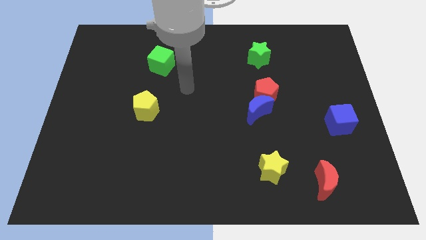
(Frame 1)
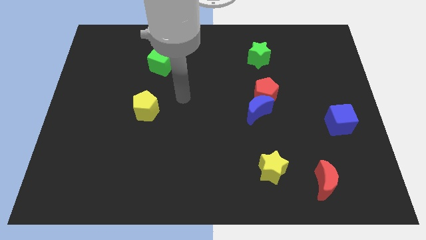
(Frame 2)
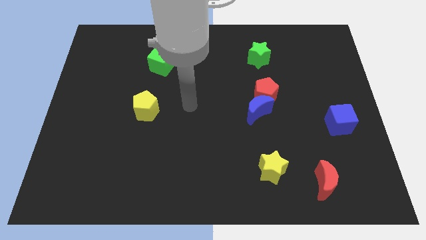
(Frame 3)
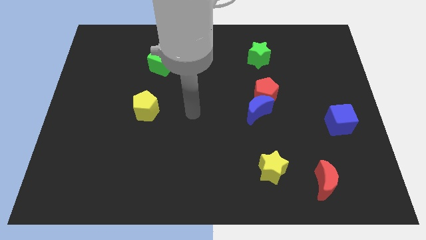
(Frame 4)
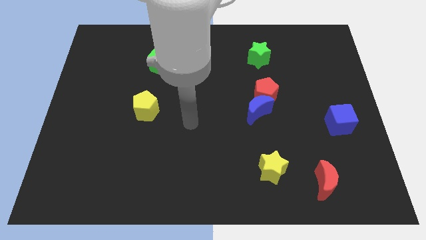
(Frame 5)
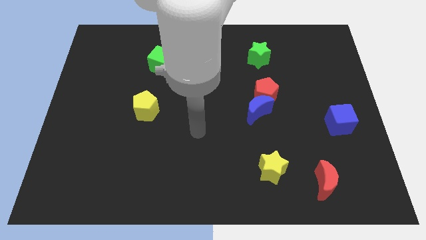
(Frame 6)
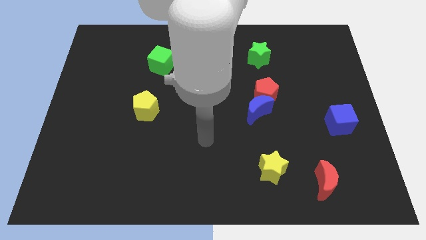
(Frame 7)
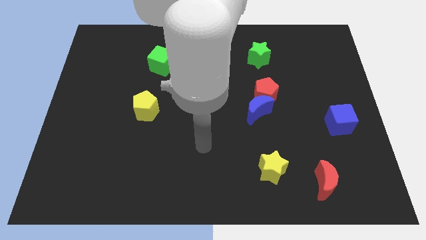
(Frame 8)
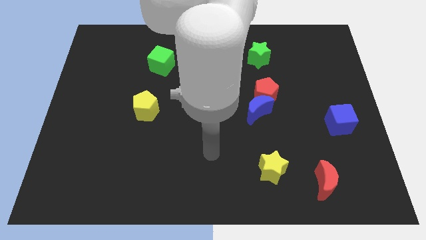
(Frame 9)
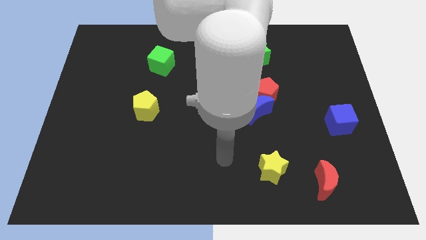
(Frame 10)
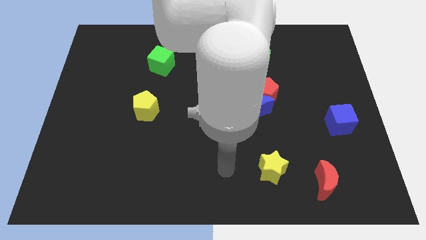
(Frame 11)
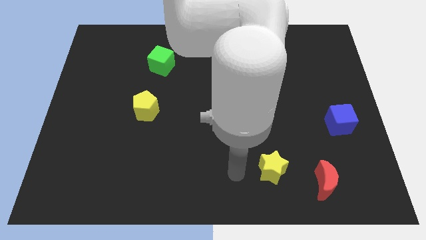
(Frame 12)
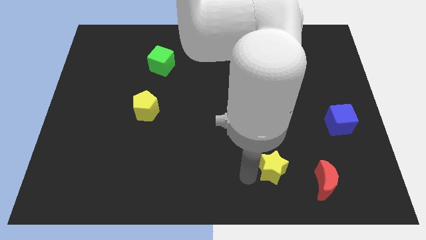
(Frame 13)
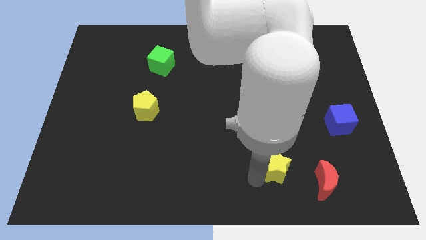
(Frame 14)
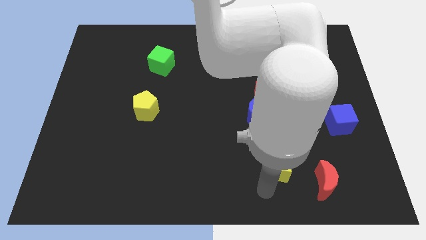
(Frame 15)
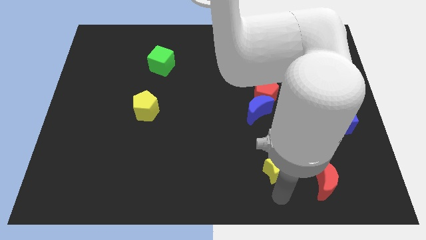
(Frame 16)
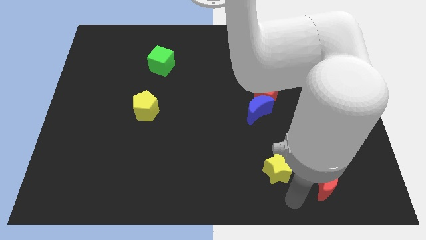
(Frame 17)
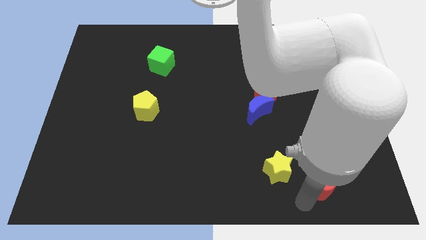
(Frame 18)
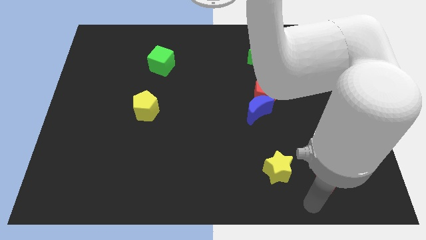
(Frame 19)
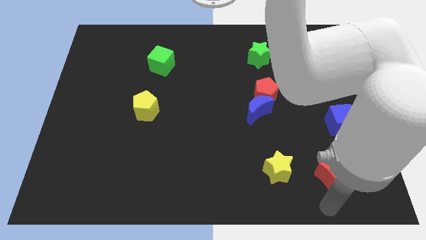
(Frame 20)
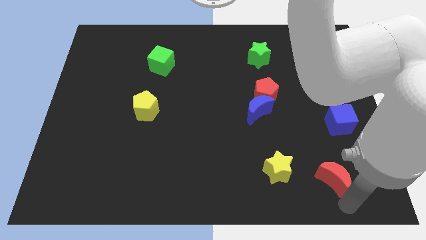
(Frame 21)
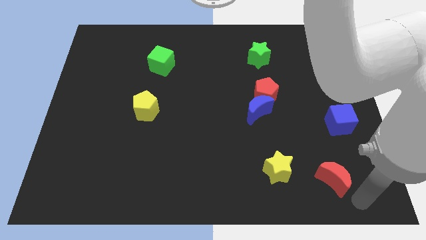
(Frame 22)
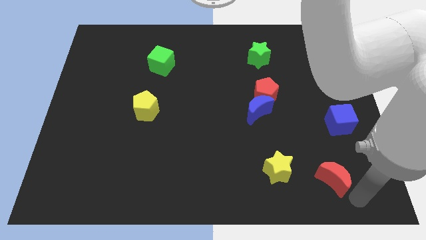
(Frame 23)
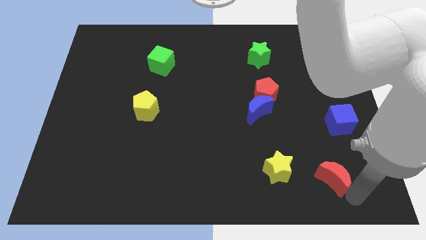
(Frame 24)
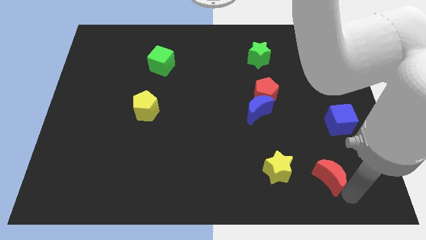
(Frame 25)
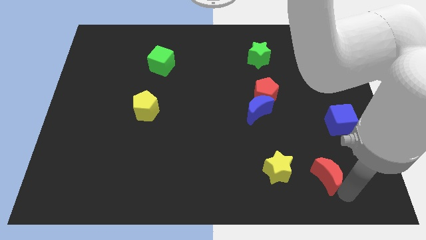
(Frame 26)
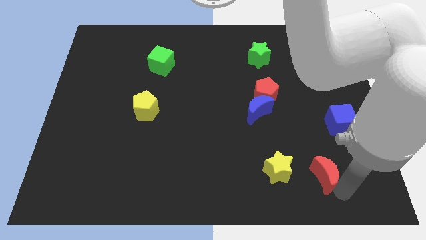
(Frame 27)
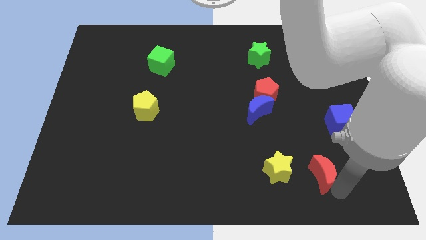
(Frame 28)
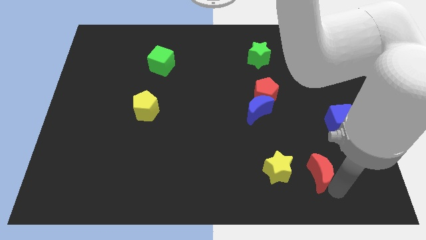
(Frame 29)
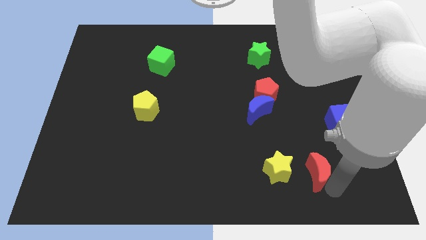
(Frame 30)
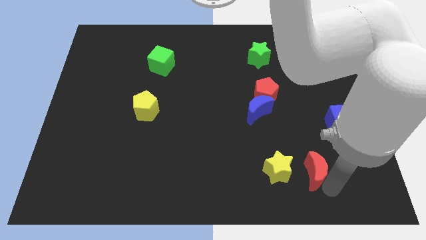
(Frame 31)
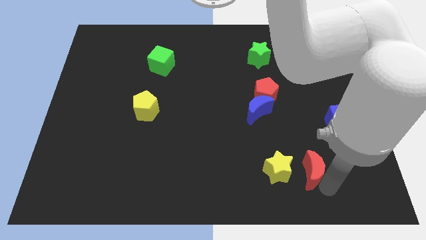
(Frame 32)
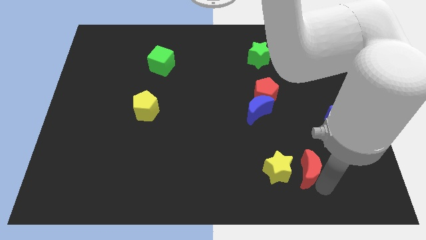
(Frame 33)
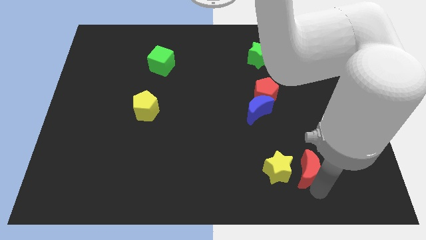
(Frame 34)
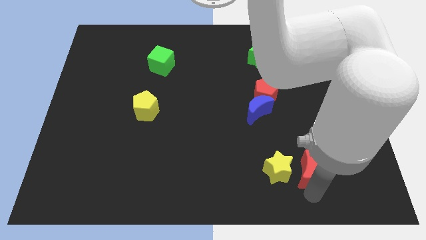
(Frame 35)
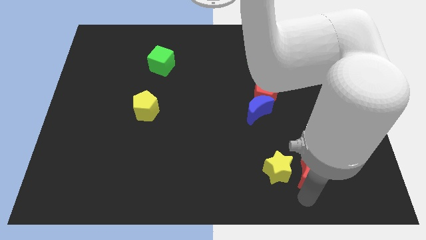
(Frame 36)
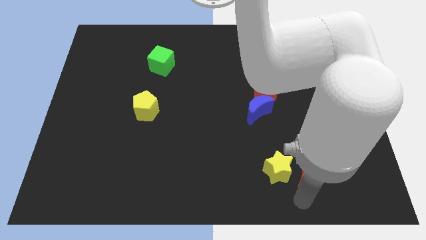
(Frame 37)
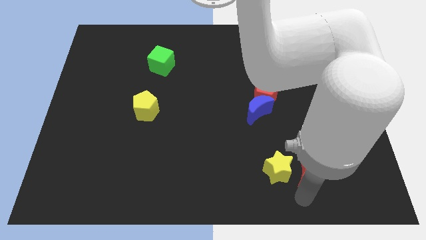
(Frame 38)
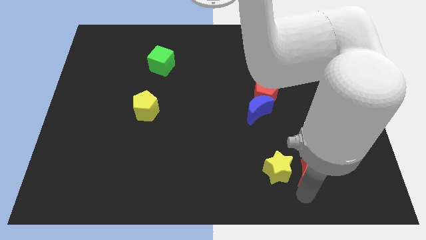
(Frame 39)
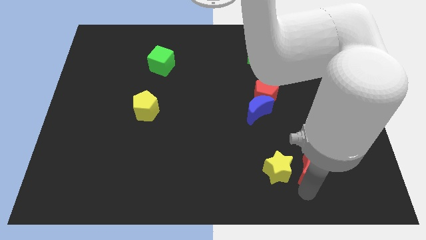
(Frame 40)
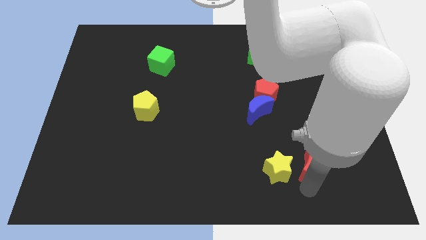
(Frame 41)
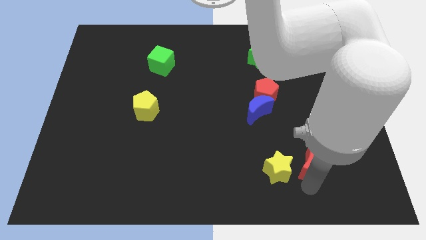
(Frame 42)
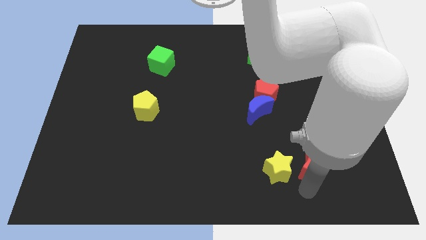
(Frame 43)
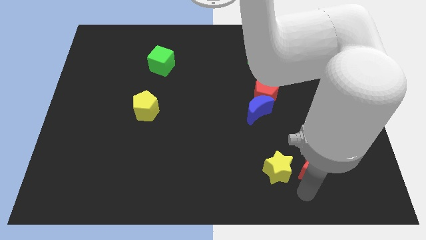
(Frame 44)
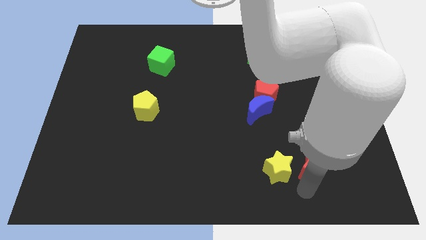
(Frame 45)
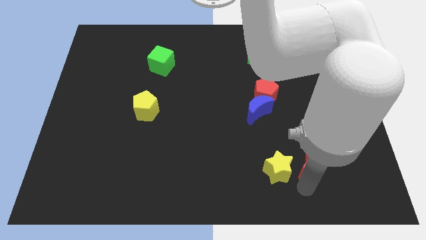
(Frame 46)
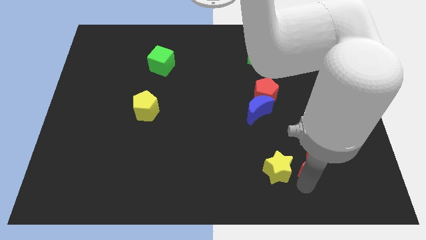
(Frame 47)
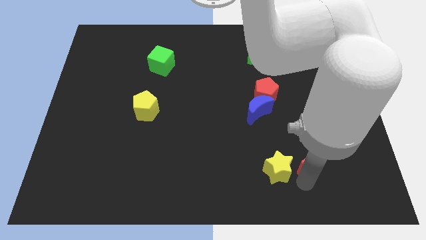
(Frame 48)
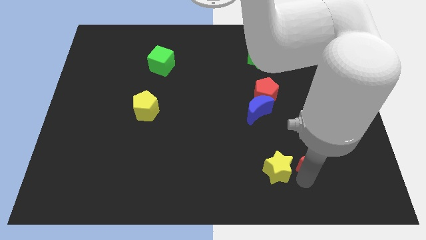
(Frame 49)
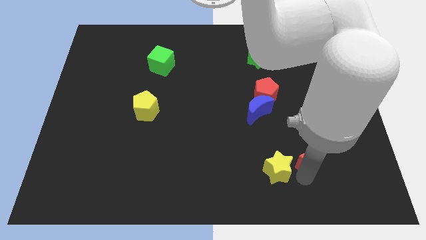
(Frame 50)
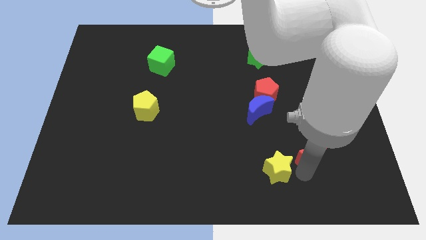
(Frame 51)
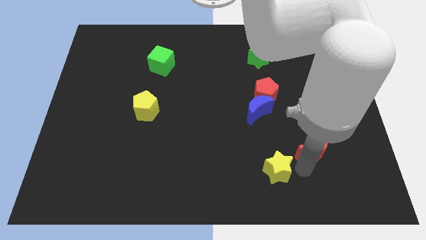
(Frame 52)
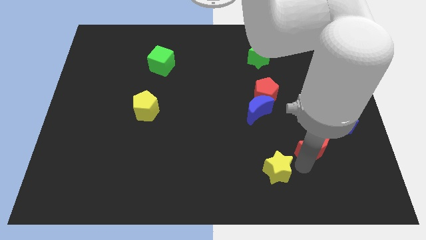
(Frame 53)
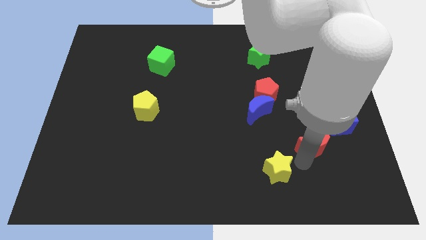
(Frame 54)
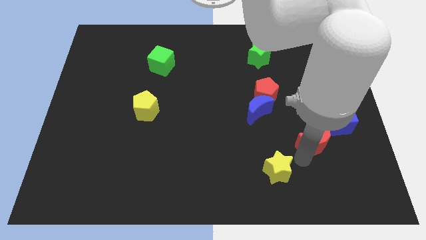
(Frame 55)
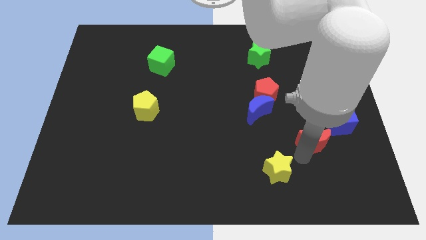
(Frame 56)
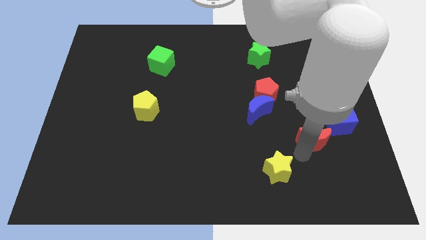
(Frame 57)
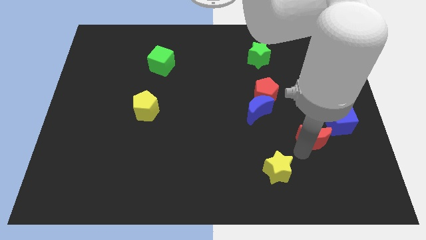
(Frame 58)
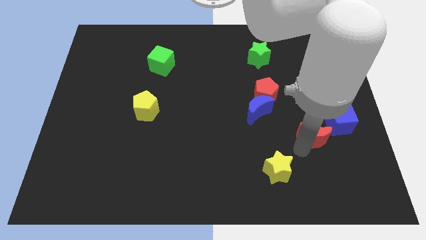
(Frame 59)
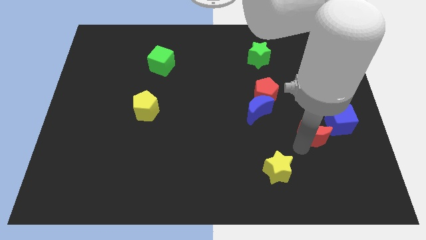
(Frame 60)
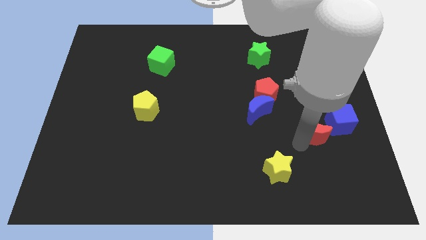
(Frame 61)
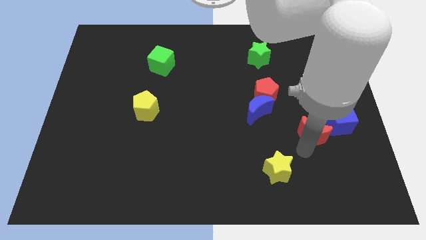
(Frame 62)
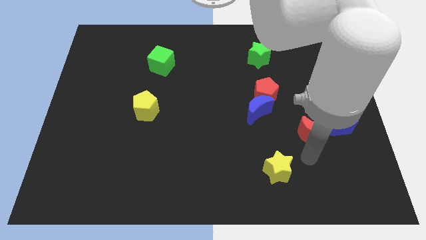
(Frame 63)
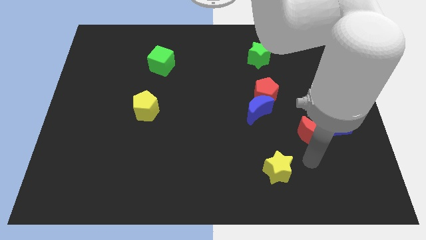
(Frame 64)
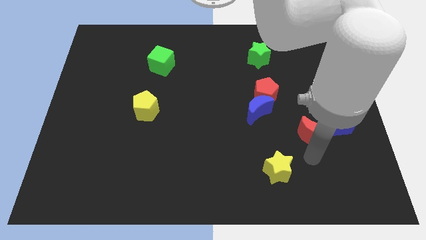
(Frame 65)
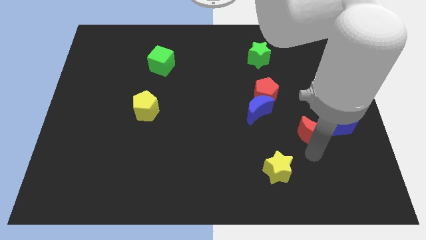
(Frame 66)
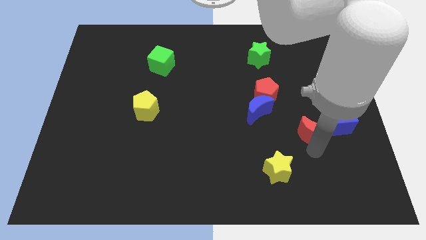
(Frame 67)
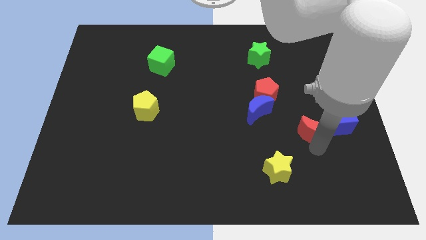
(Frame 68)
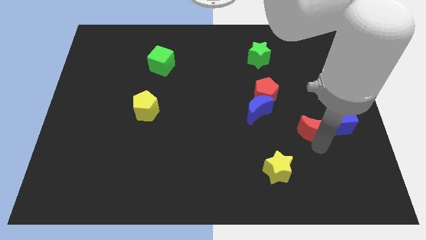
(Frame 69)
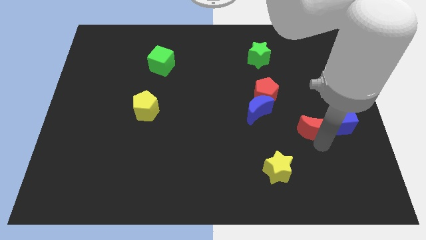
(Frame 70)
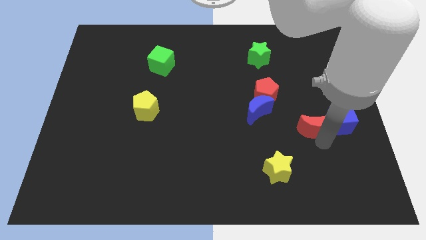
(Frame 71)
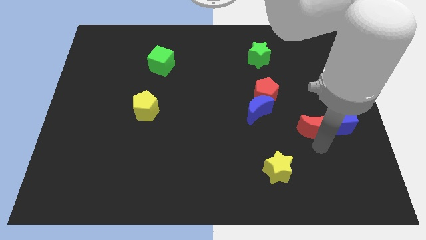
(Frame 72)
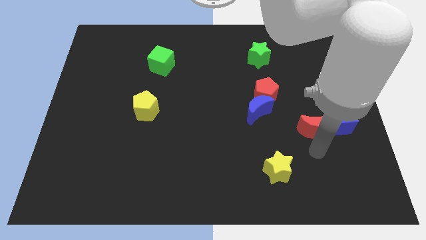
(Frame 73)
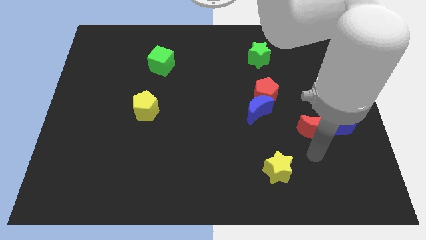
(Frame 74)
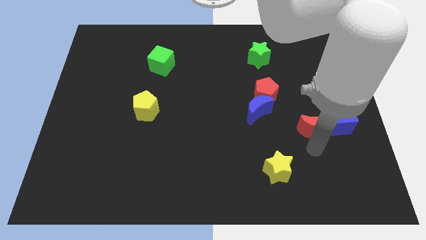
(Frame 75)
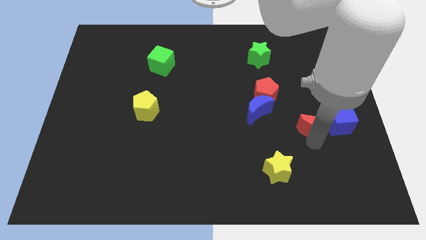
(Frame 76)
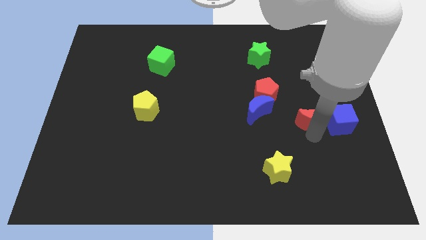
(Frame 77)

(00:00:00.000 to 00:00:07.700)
move the red moon to the top left of the blue cube

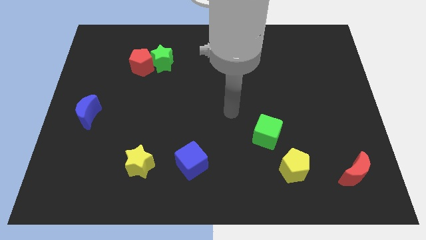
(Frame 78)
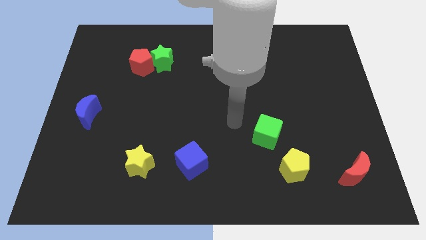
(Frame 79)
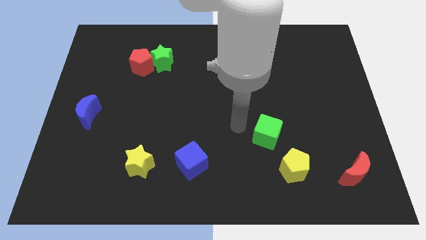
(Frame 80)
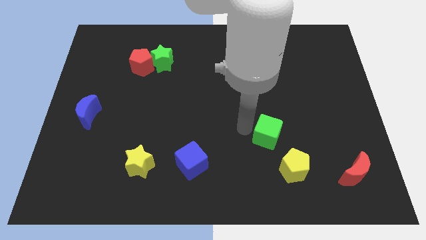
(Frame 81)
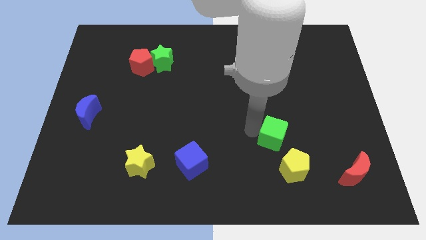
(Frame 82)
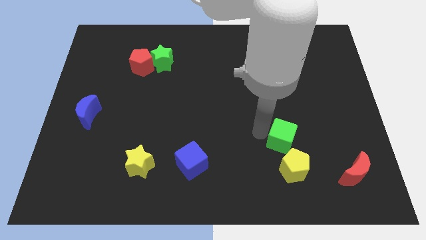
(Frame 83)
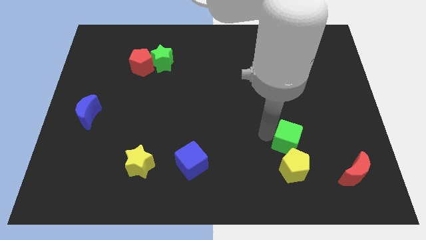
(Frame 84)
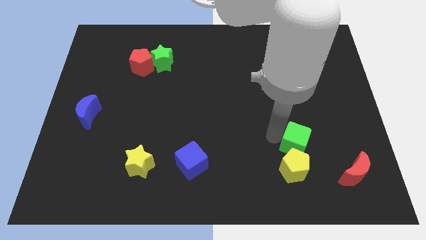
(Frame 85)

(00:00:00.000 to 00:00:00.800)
move the green cube to the top right side of the yellow pentagon
